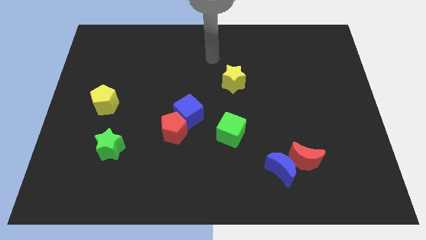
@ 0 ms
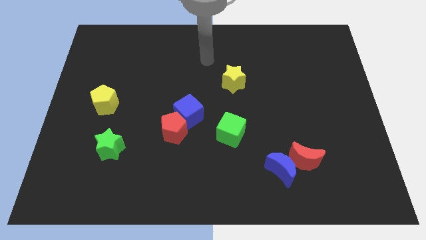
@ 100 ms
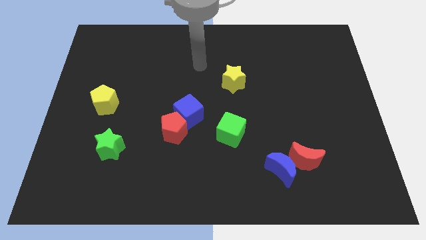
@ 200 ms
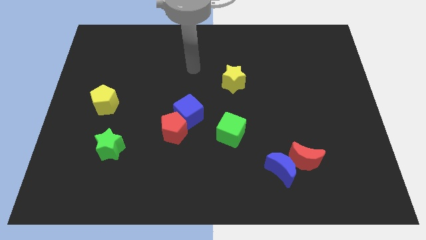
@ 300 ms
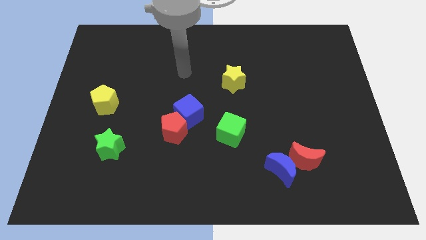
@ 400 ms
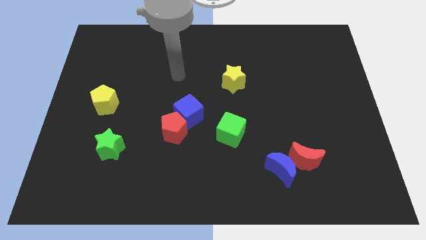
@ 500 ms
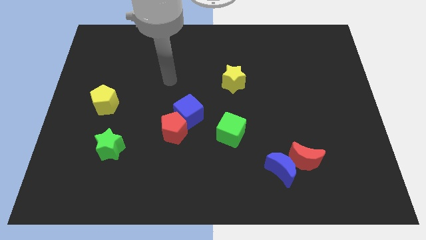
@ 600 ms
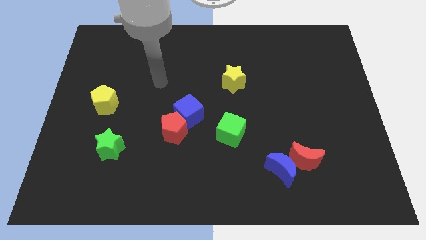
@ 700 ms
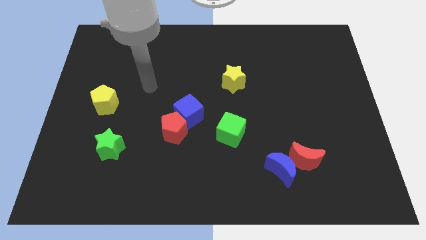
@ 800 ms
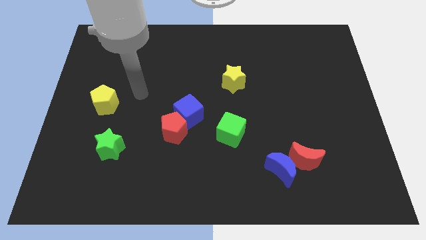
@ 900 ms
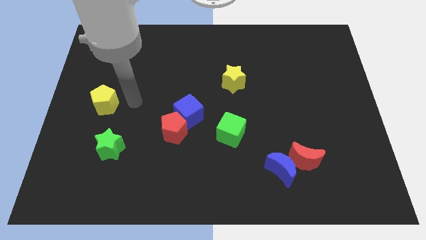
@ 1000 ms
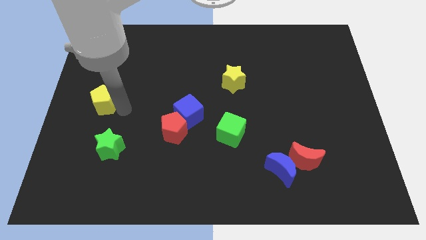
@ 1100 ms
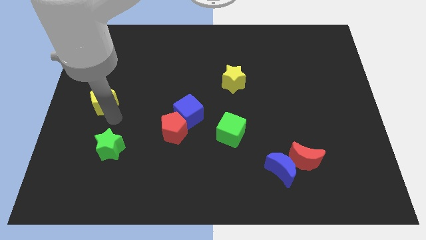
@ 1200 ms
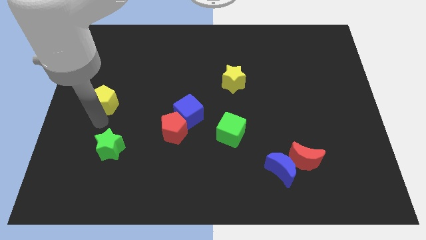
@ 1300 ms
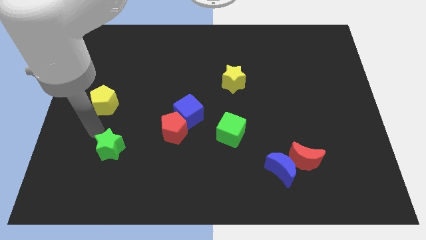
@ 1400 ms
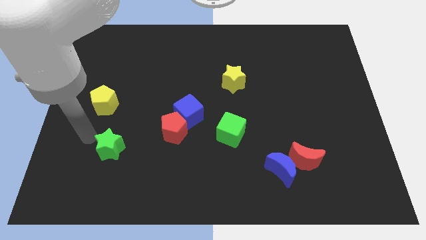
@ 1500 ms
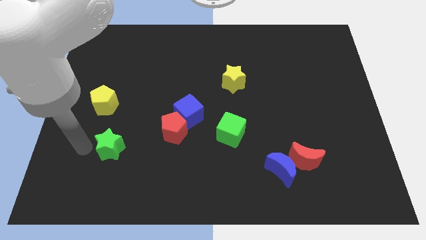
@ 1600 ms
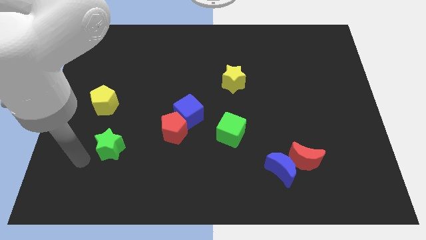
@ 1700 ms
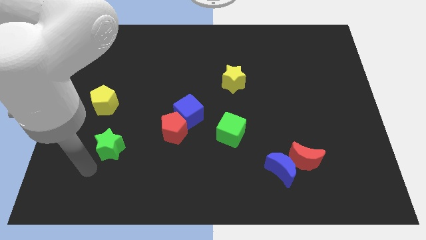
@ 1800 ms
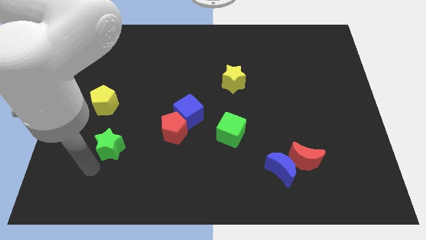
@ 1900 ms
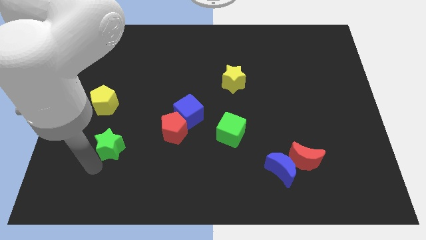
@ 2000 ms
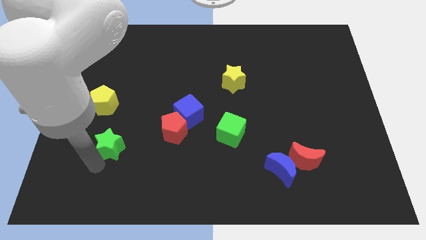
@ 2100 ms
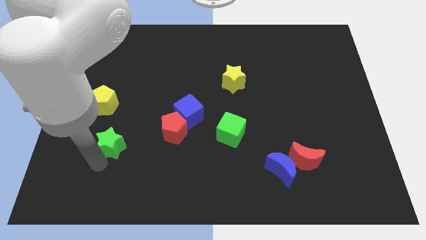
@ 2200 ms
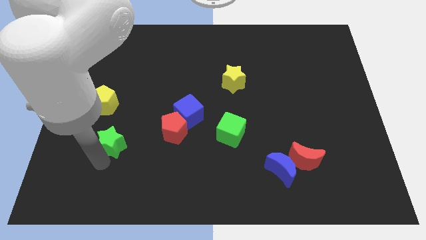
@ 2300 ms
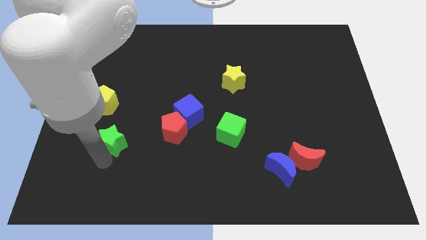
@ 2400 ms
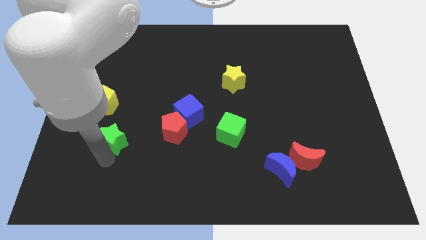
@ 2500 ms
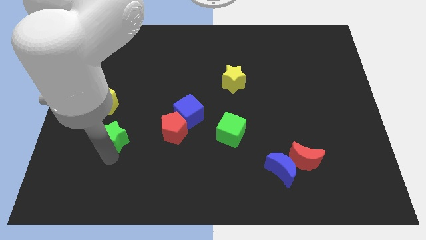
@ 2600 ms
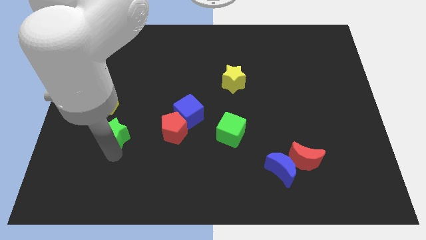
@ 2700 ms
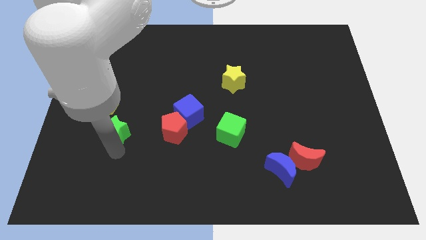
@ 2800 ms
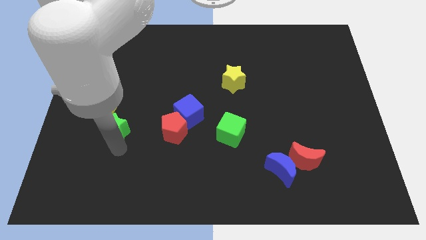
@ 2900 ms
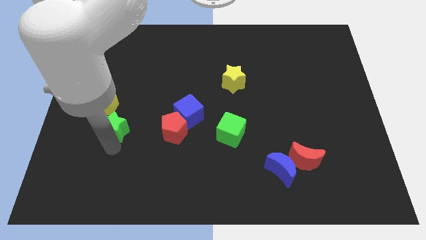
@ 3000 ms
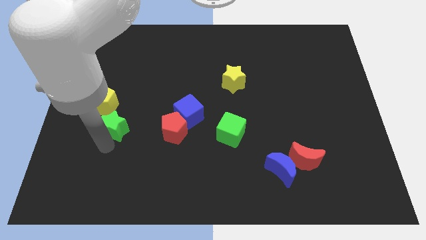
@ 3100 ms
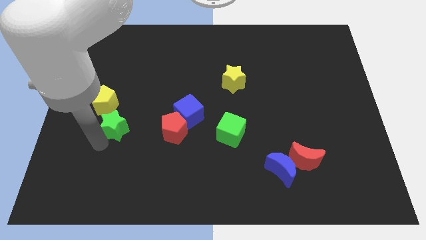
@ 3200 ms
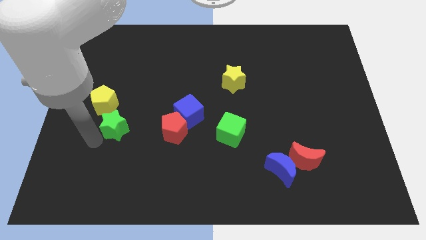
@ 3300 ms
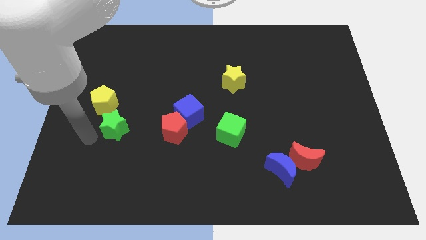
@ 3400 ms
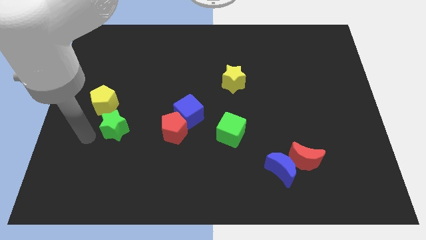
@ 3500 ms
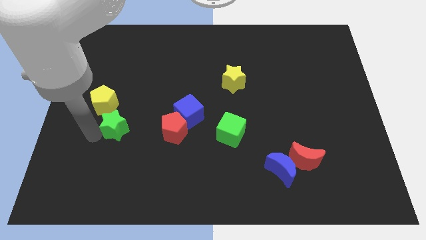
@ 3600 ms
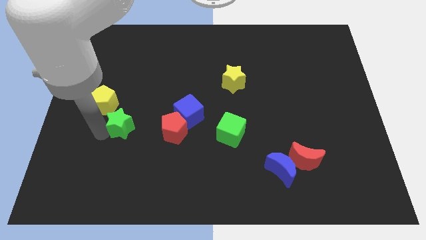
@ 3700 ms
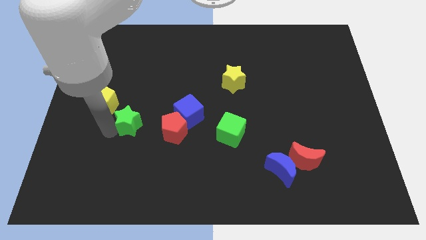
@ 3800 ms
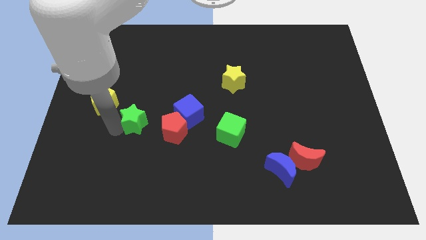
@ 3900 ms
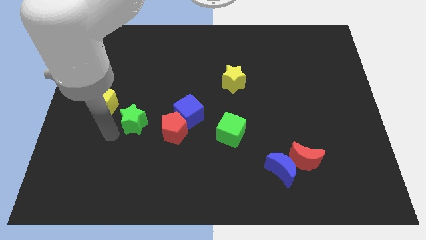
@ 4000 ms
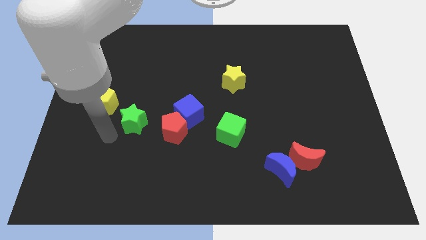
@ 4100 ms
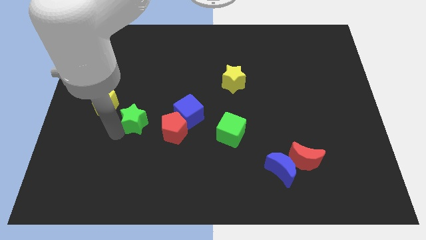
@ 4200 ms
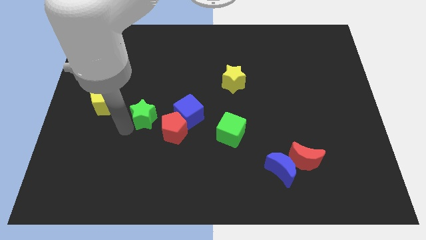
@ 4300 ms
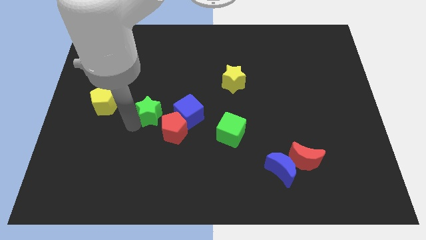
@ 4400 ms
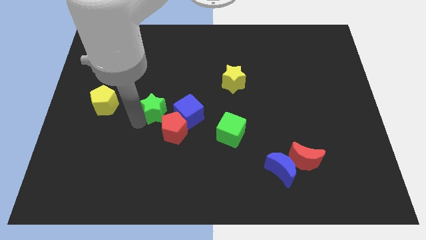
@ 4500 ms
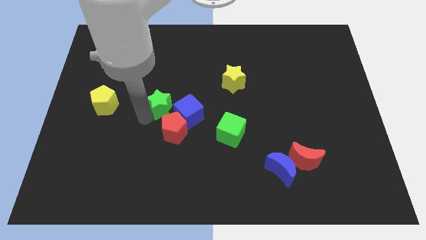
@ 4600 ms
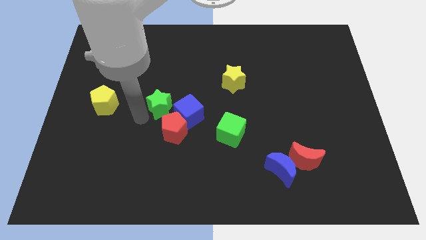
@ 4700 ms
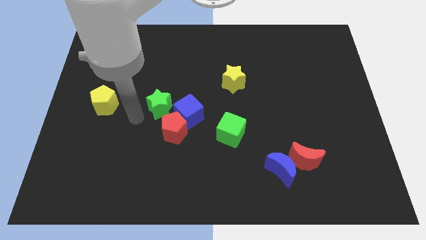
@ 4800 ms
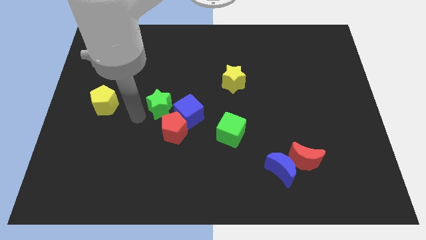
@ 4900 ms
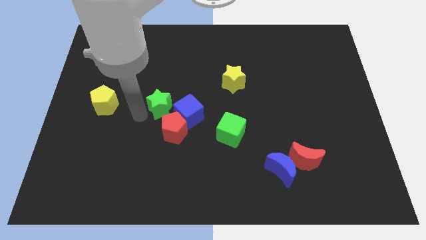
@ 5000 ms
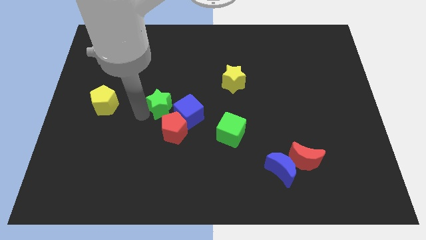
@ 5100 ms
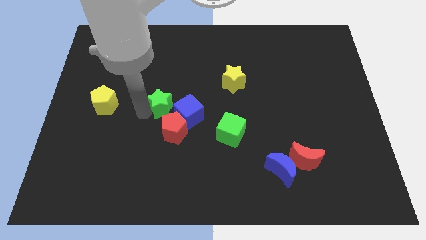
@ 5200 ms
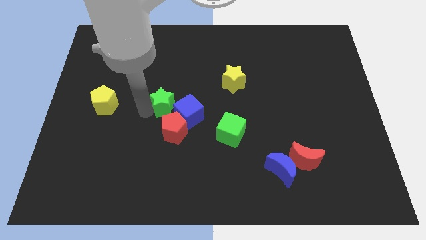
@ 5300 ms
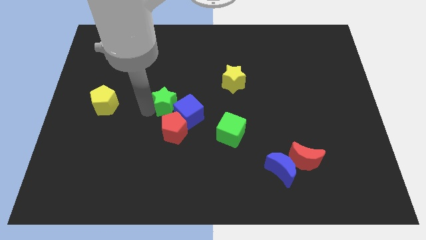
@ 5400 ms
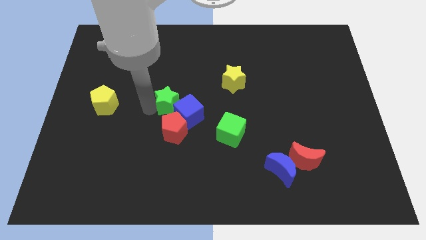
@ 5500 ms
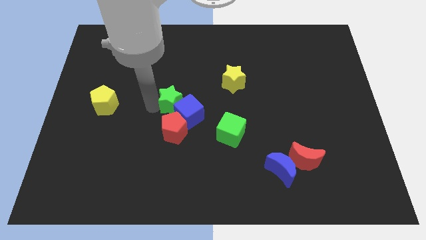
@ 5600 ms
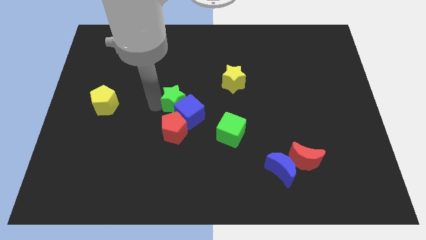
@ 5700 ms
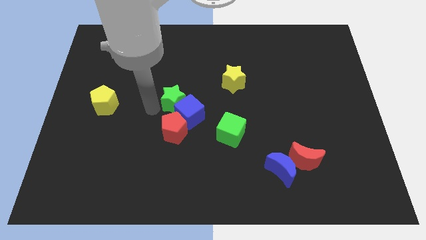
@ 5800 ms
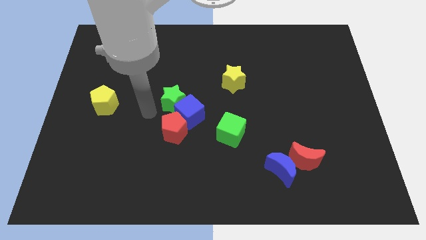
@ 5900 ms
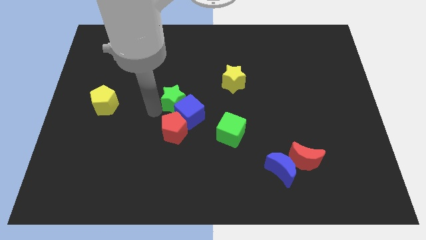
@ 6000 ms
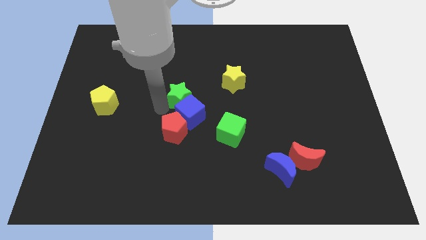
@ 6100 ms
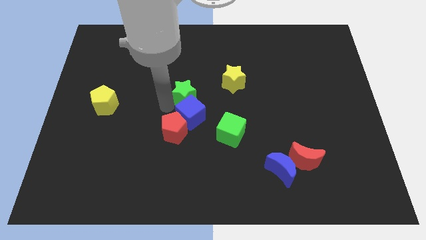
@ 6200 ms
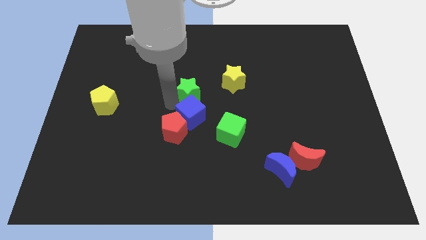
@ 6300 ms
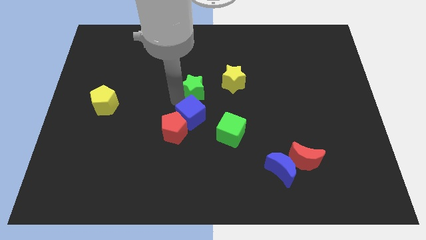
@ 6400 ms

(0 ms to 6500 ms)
push the green star to the bottom left side of the yellow star
